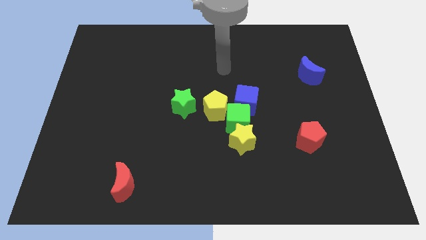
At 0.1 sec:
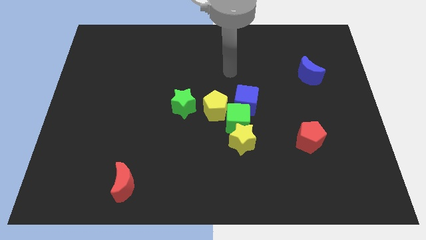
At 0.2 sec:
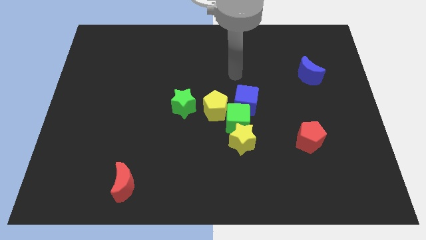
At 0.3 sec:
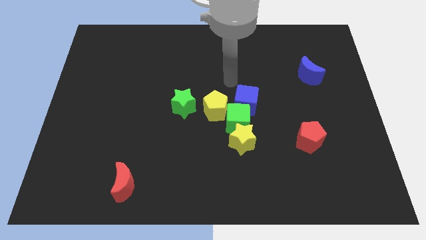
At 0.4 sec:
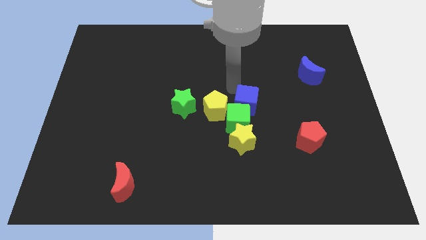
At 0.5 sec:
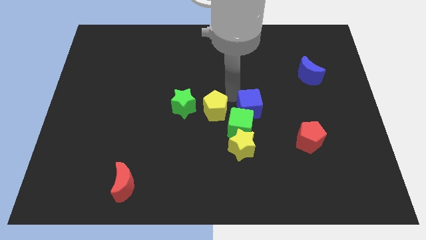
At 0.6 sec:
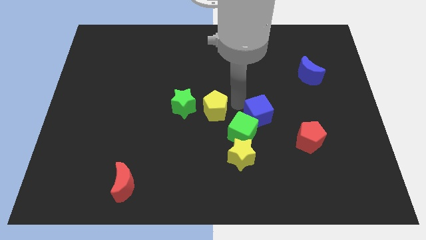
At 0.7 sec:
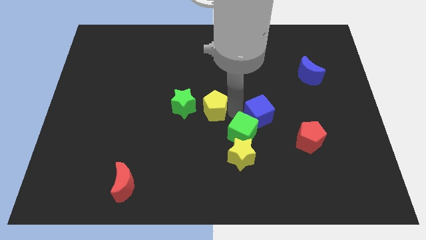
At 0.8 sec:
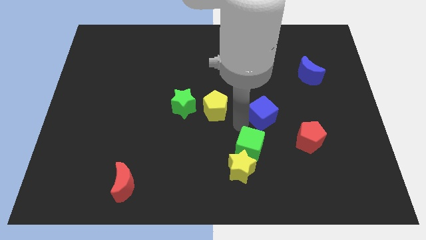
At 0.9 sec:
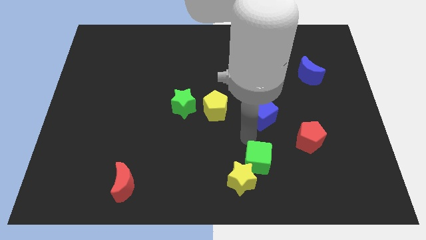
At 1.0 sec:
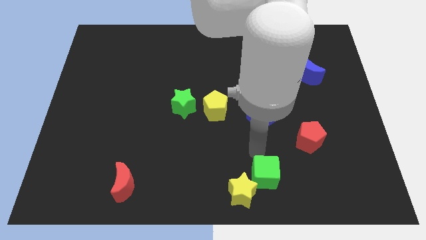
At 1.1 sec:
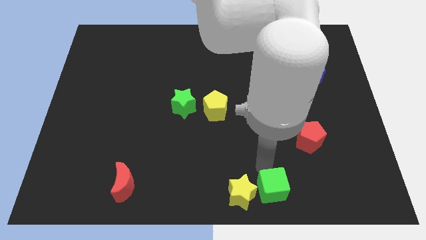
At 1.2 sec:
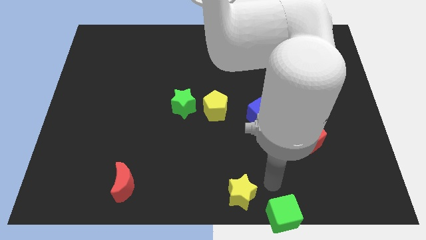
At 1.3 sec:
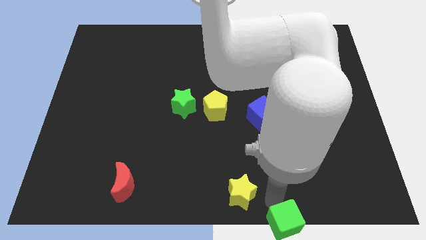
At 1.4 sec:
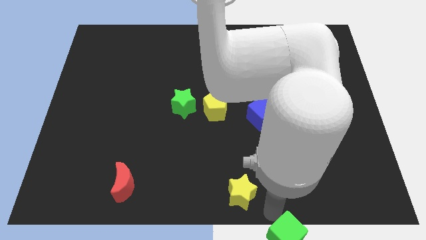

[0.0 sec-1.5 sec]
separate the yellow star from the green cube

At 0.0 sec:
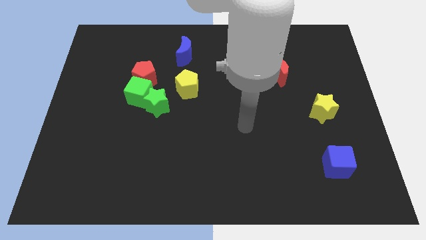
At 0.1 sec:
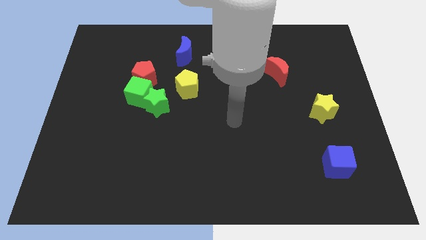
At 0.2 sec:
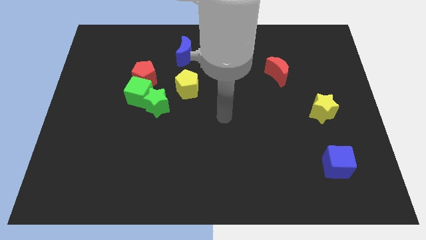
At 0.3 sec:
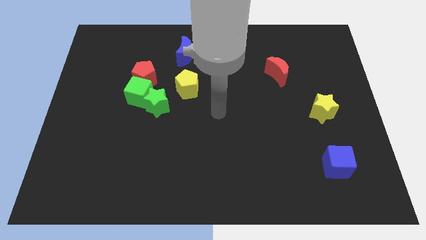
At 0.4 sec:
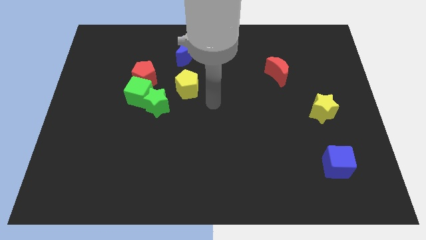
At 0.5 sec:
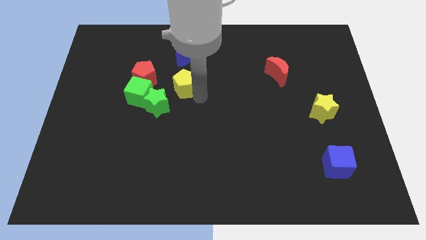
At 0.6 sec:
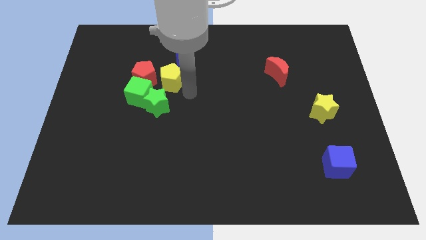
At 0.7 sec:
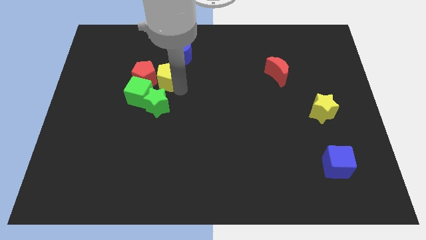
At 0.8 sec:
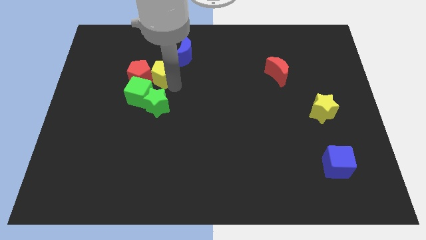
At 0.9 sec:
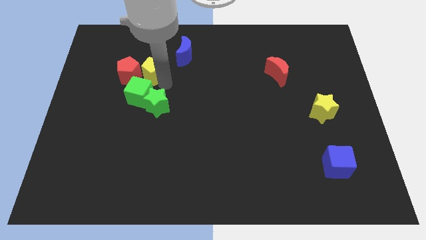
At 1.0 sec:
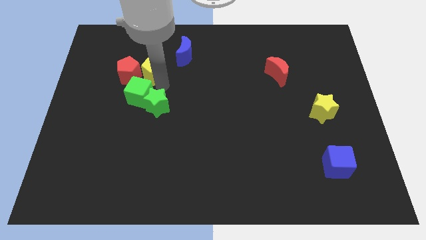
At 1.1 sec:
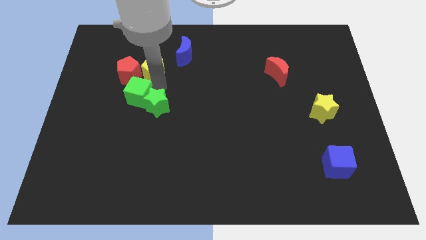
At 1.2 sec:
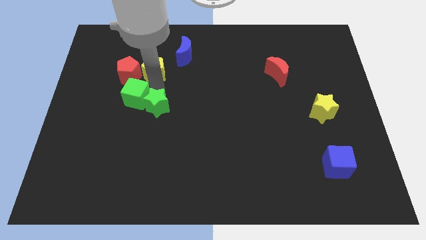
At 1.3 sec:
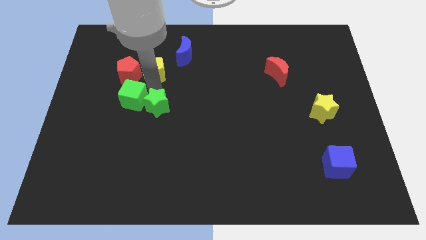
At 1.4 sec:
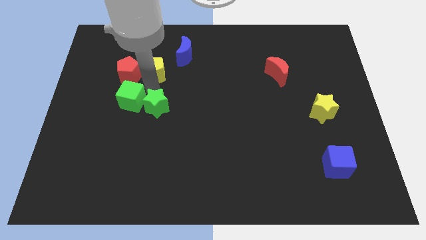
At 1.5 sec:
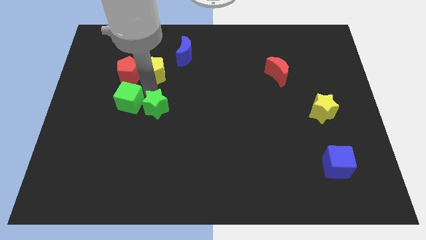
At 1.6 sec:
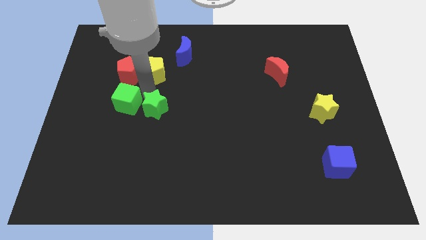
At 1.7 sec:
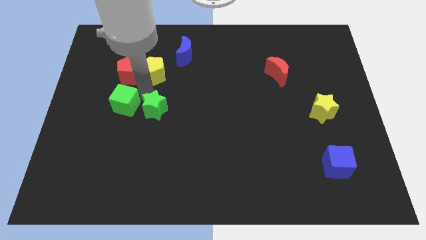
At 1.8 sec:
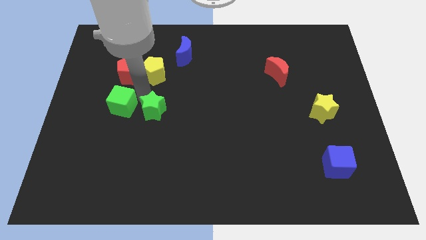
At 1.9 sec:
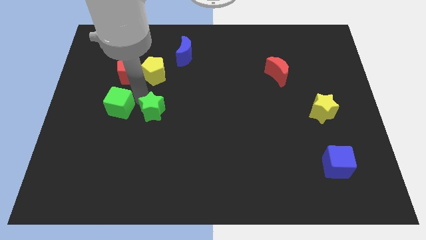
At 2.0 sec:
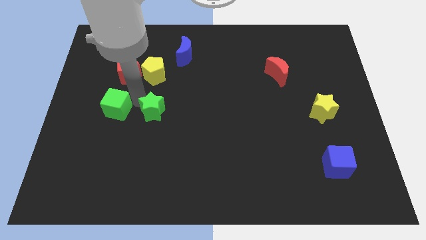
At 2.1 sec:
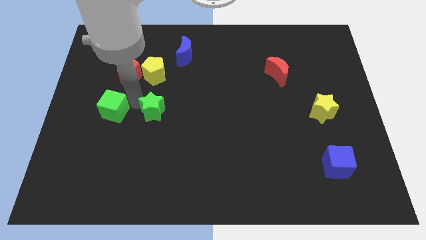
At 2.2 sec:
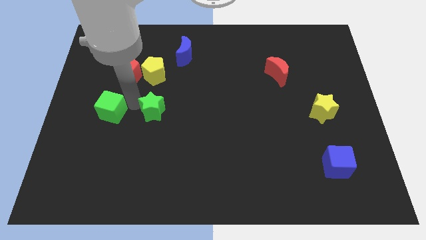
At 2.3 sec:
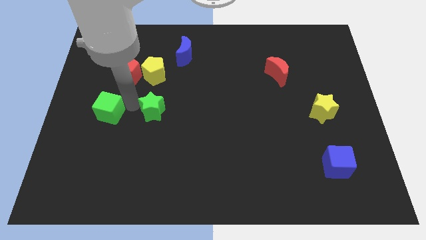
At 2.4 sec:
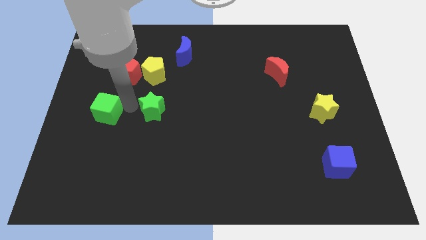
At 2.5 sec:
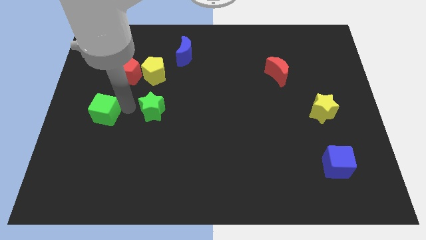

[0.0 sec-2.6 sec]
move the green cube away from the green star and red pentagon

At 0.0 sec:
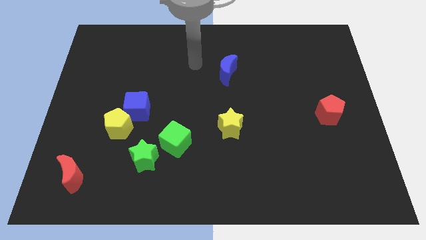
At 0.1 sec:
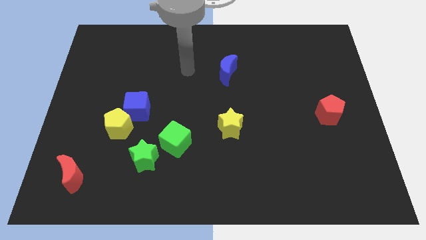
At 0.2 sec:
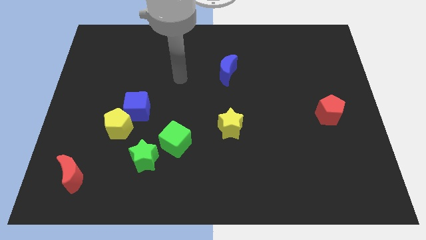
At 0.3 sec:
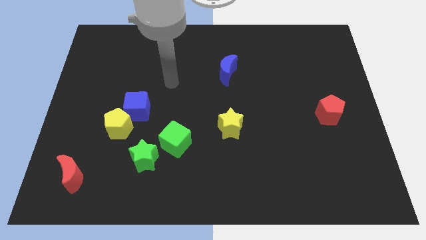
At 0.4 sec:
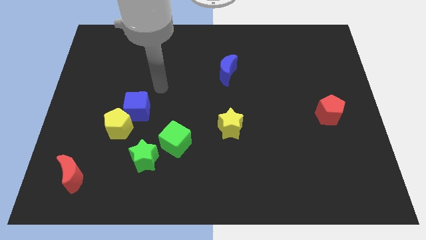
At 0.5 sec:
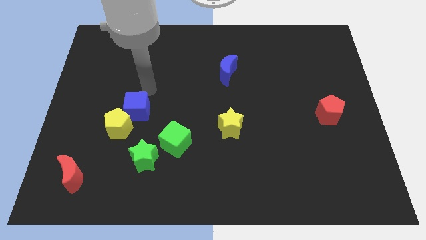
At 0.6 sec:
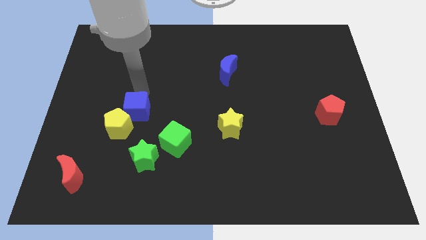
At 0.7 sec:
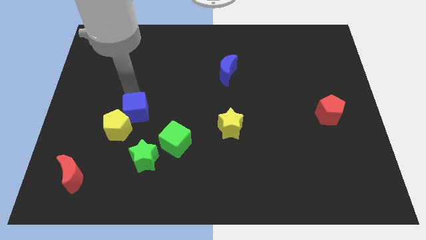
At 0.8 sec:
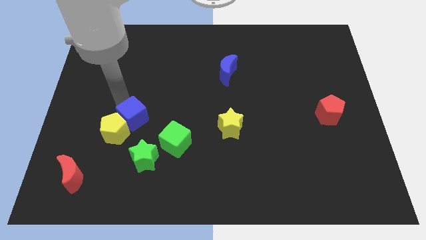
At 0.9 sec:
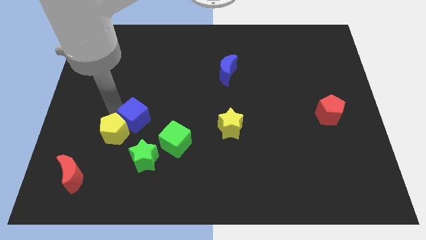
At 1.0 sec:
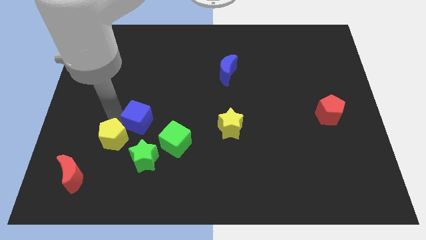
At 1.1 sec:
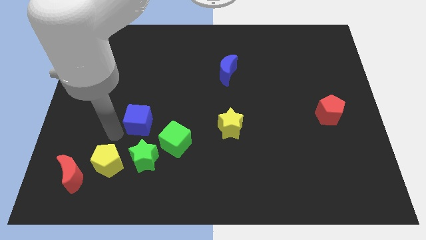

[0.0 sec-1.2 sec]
pull the blue cube apart from the yellow pentagon

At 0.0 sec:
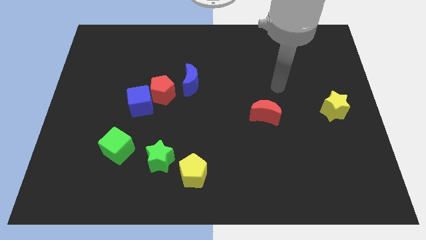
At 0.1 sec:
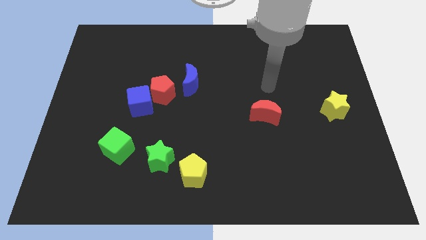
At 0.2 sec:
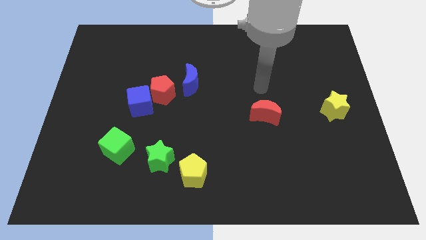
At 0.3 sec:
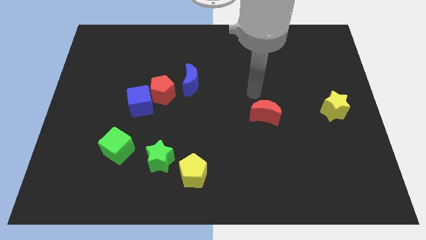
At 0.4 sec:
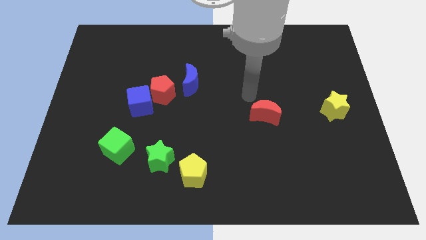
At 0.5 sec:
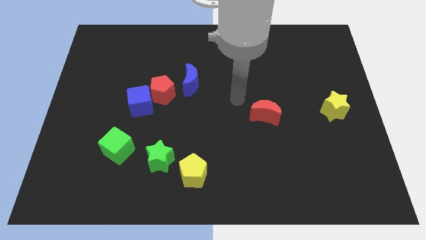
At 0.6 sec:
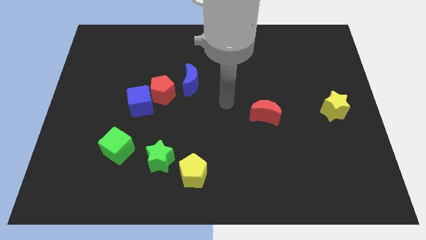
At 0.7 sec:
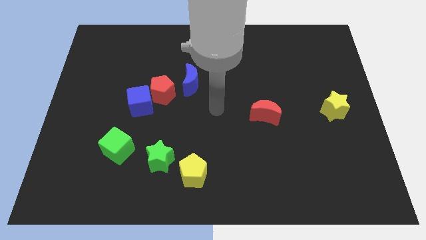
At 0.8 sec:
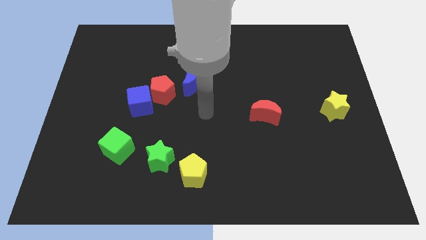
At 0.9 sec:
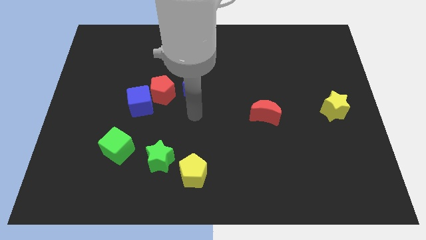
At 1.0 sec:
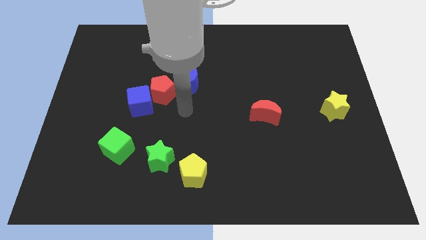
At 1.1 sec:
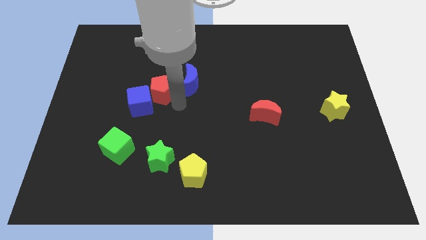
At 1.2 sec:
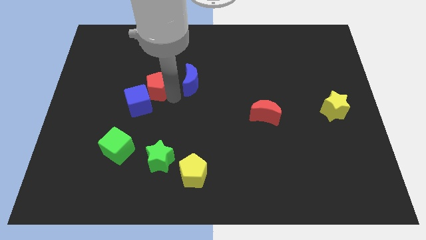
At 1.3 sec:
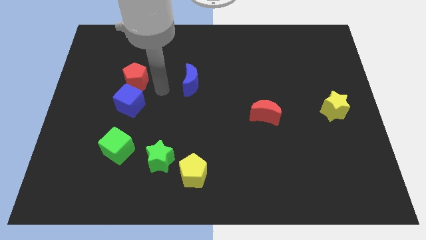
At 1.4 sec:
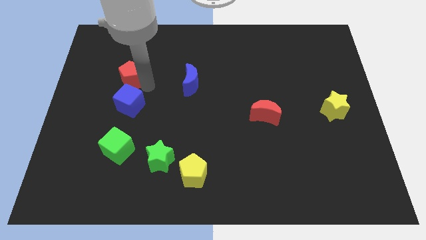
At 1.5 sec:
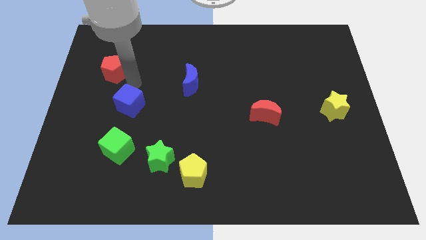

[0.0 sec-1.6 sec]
pull the blue cube apart from the red pentagon

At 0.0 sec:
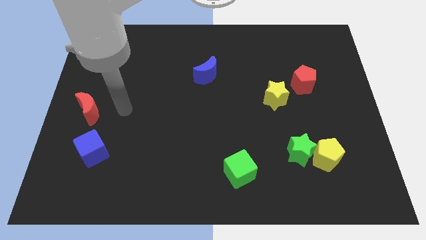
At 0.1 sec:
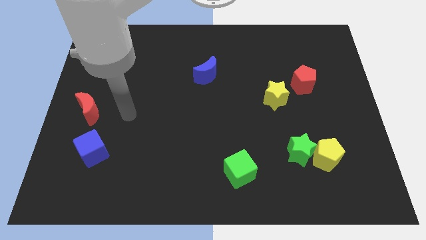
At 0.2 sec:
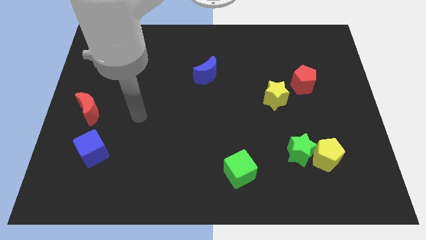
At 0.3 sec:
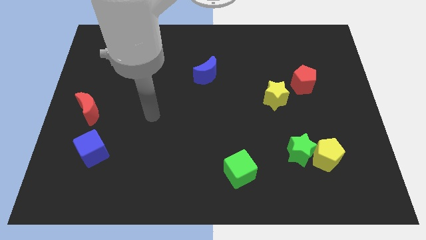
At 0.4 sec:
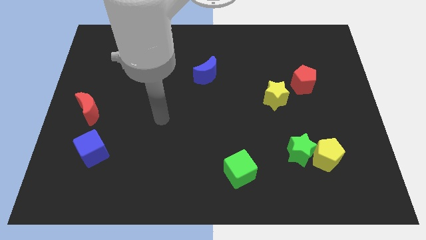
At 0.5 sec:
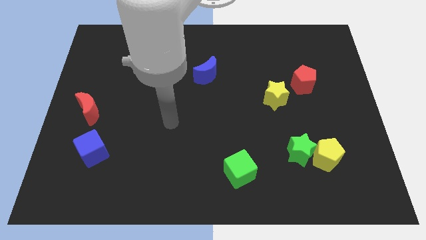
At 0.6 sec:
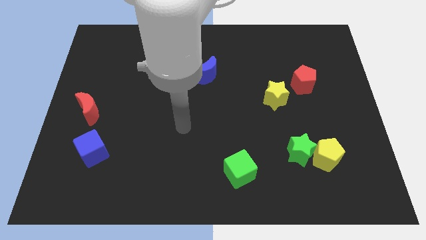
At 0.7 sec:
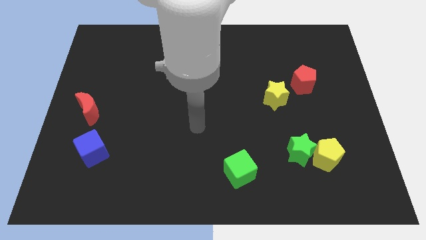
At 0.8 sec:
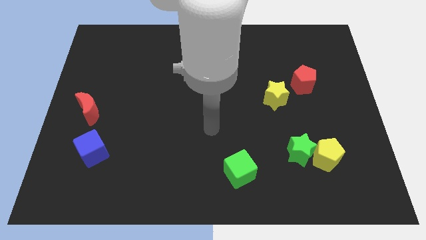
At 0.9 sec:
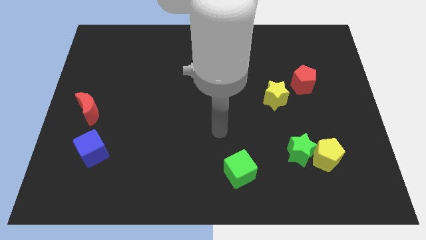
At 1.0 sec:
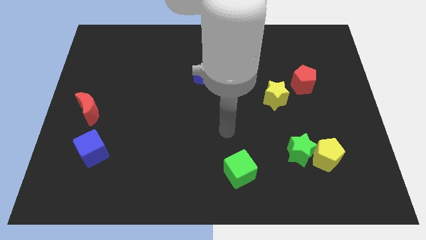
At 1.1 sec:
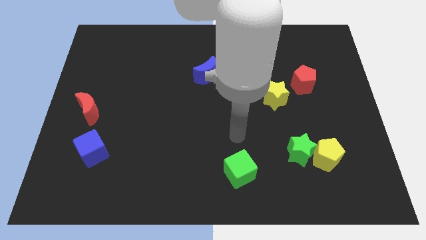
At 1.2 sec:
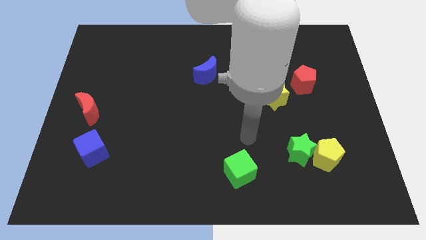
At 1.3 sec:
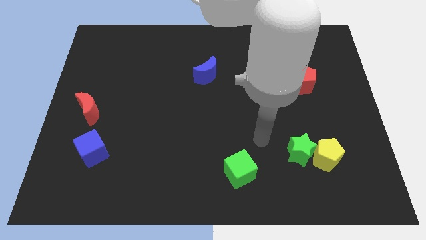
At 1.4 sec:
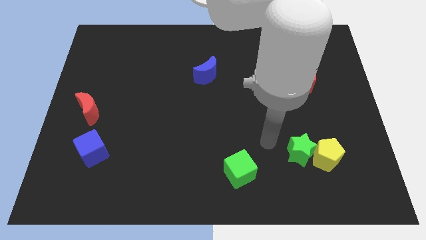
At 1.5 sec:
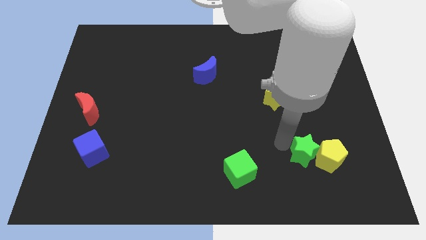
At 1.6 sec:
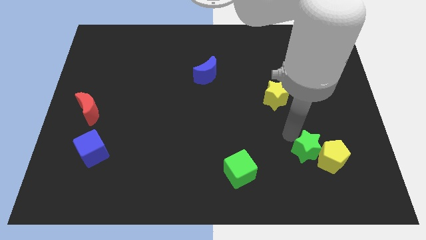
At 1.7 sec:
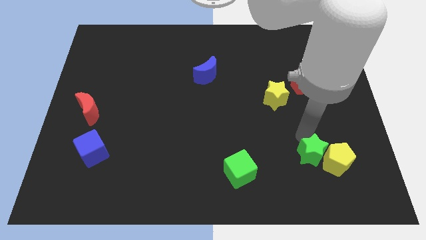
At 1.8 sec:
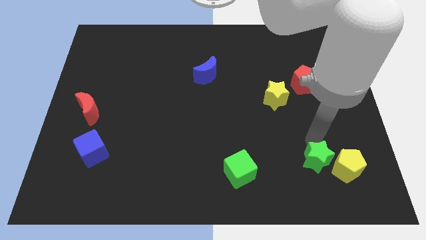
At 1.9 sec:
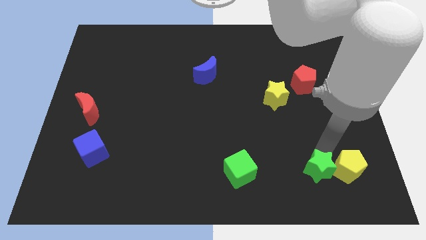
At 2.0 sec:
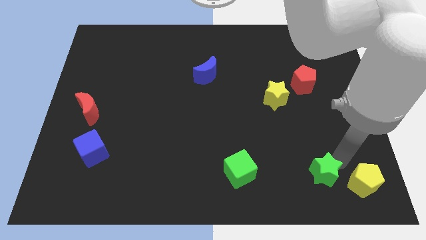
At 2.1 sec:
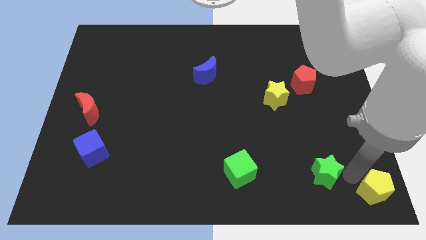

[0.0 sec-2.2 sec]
pull the green star apart from the yellow pentagon

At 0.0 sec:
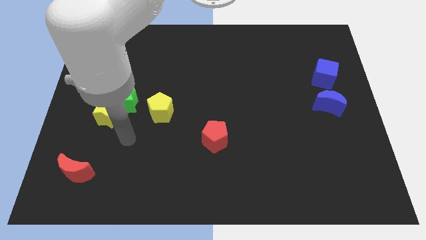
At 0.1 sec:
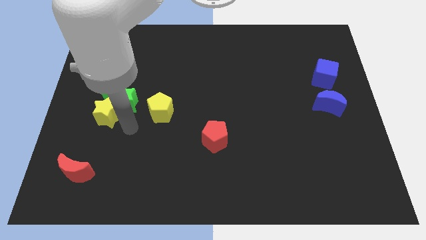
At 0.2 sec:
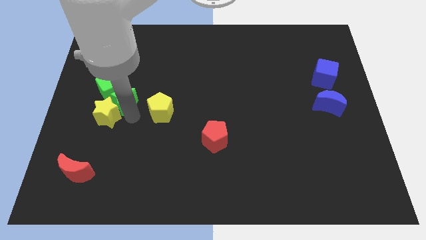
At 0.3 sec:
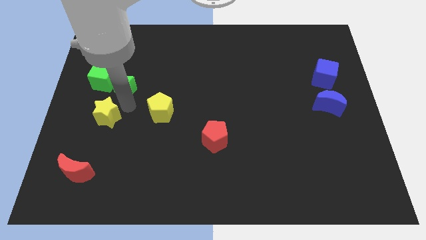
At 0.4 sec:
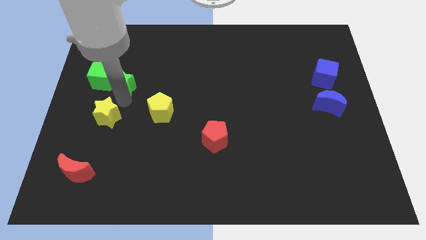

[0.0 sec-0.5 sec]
move the yellow star away from the green star and green cube
